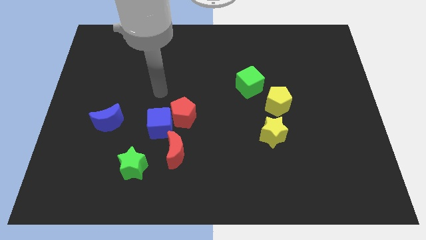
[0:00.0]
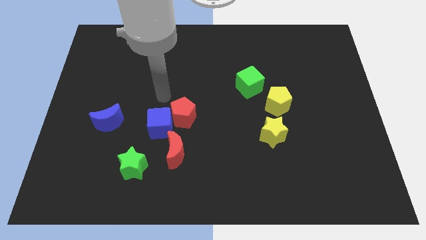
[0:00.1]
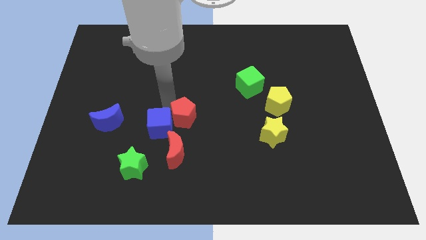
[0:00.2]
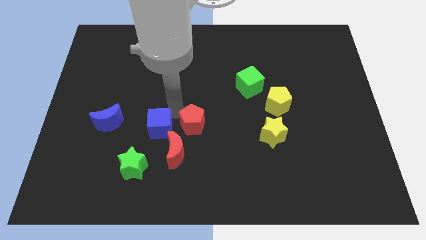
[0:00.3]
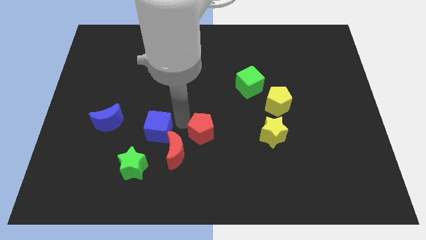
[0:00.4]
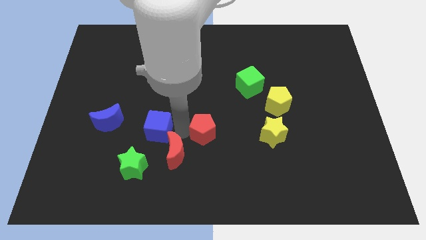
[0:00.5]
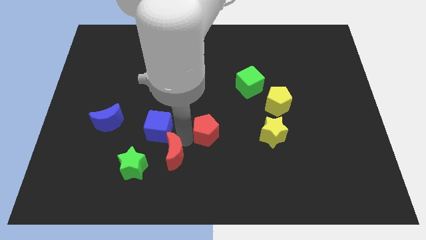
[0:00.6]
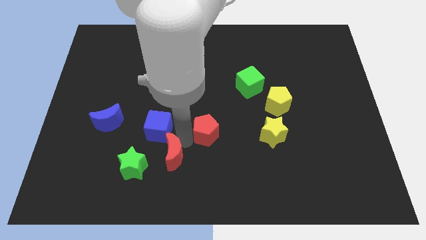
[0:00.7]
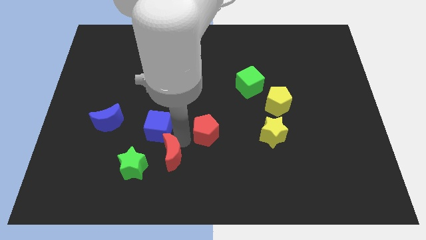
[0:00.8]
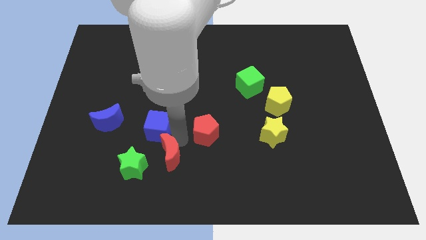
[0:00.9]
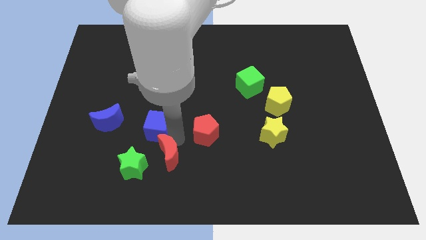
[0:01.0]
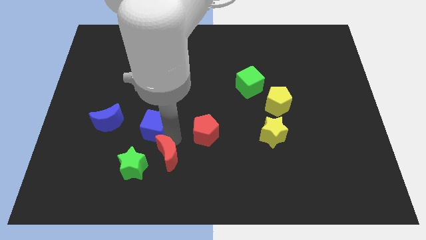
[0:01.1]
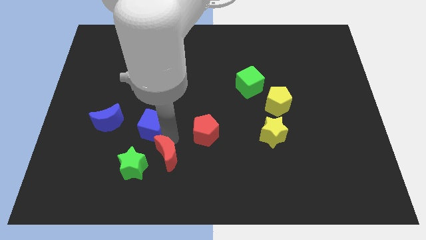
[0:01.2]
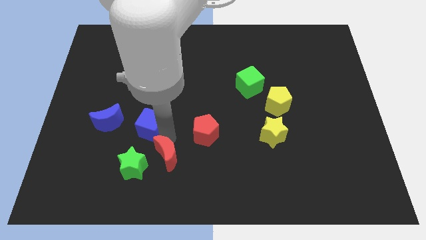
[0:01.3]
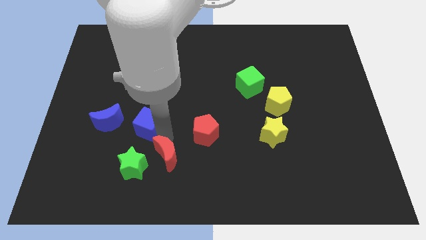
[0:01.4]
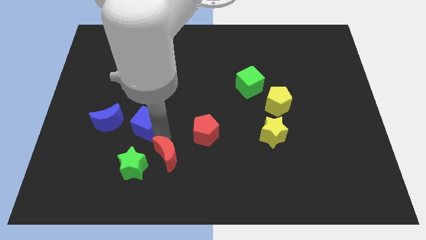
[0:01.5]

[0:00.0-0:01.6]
separate the blue cube from the red pentagon and red moon

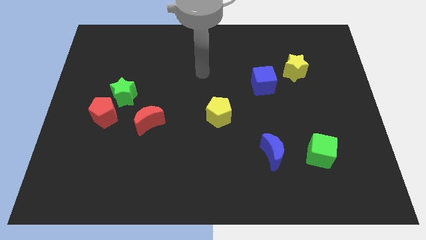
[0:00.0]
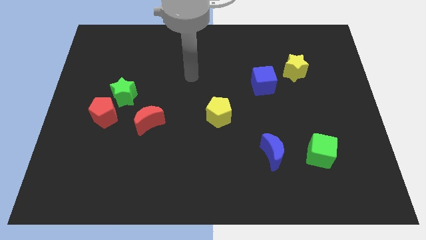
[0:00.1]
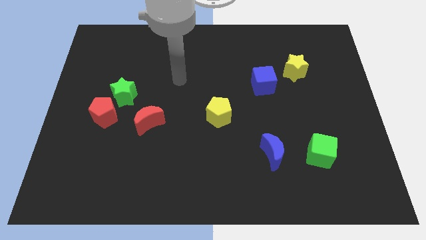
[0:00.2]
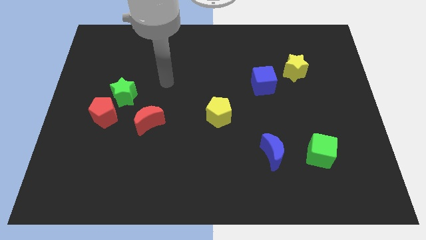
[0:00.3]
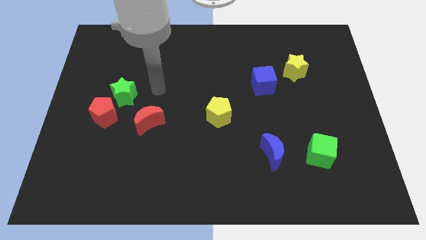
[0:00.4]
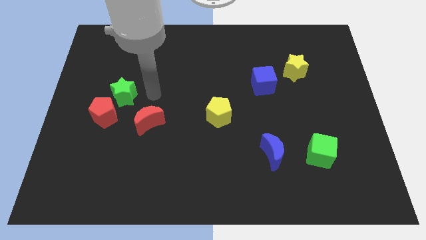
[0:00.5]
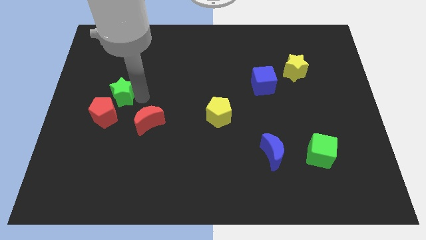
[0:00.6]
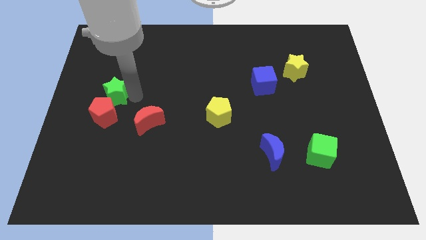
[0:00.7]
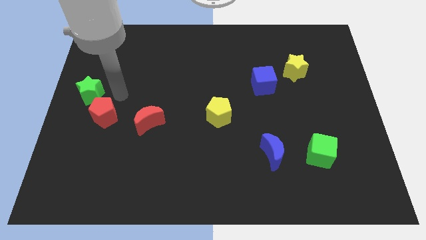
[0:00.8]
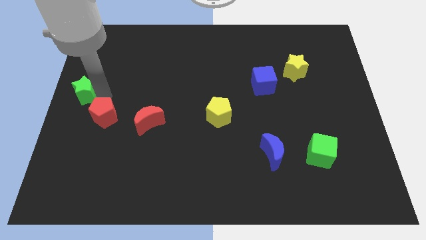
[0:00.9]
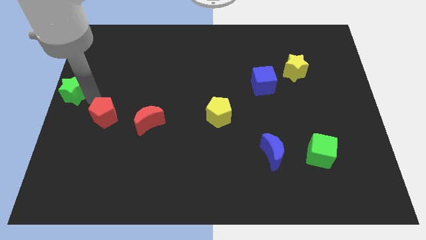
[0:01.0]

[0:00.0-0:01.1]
pull the red pentagon apart from the green star

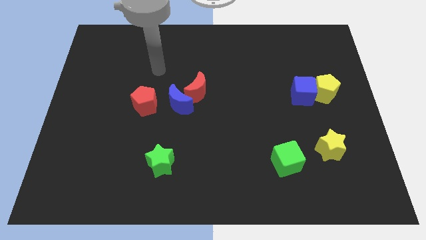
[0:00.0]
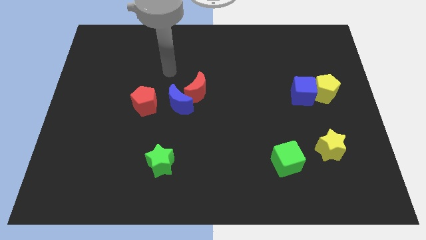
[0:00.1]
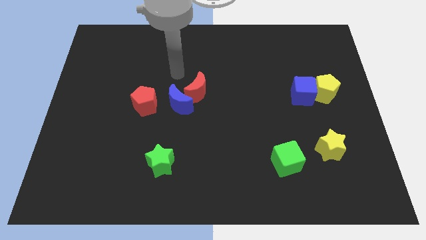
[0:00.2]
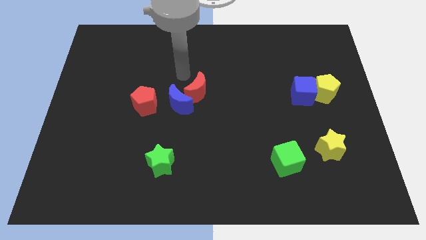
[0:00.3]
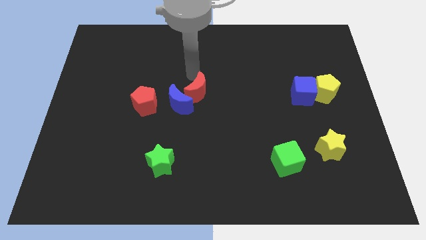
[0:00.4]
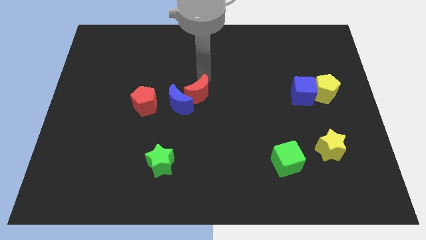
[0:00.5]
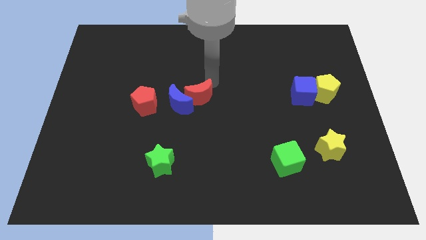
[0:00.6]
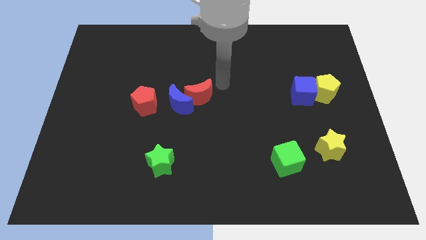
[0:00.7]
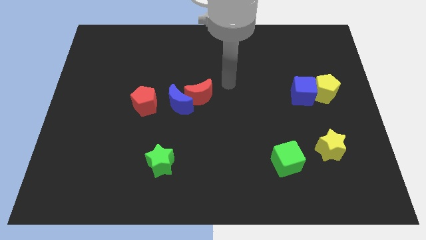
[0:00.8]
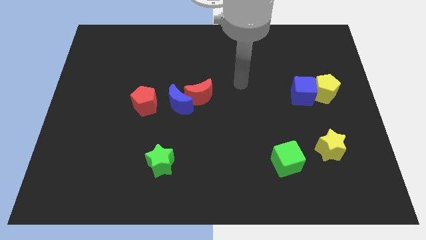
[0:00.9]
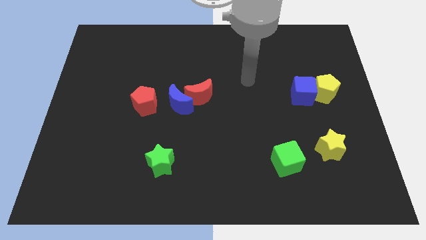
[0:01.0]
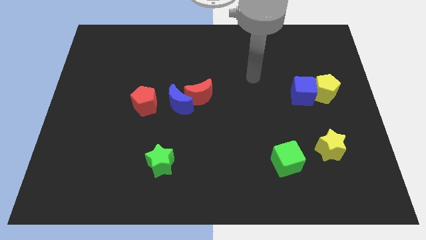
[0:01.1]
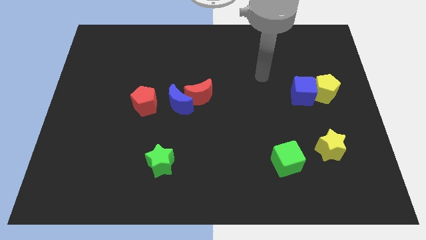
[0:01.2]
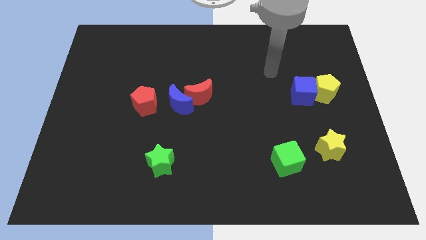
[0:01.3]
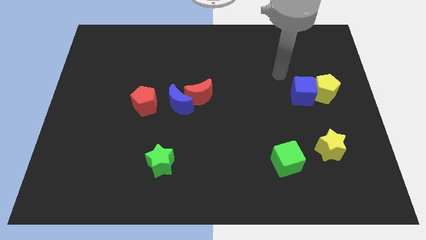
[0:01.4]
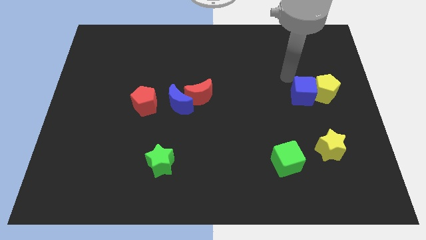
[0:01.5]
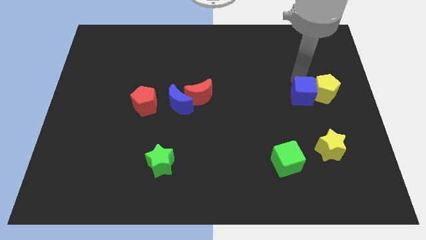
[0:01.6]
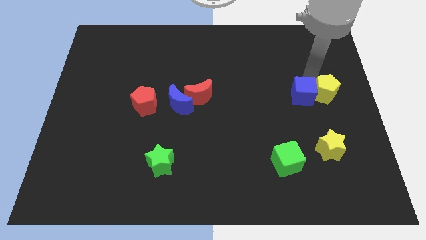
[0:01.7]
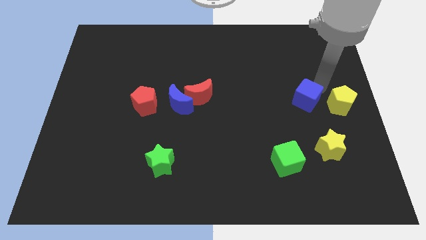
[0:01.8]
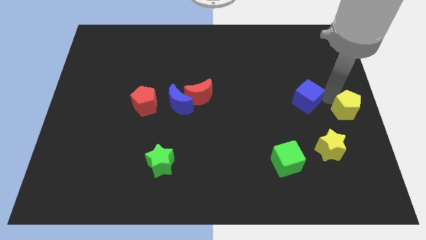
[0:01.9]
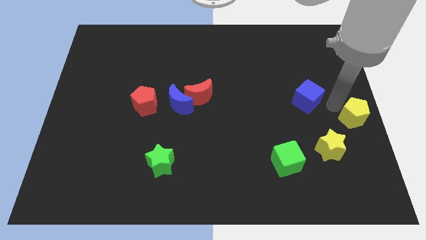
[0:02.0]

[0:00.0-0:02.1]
separate the blue cube from the yellow pentagon

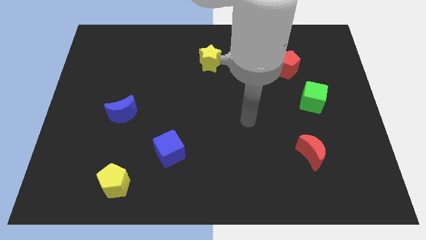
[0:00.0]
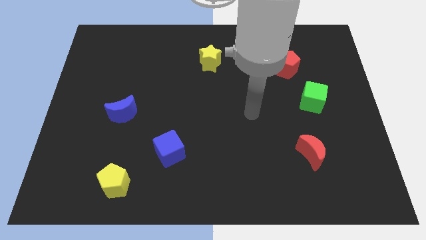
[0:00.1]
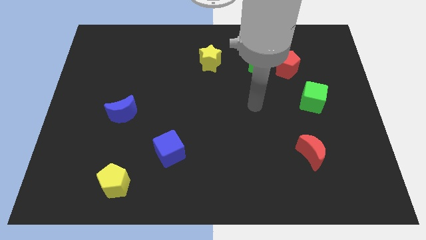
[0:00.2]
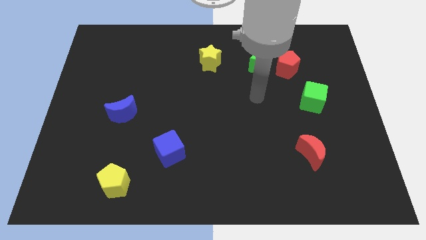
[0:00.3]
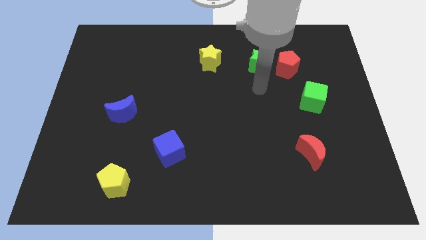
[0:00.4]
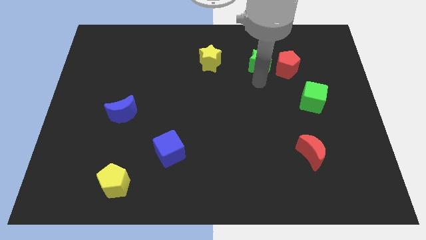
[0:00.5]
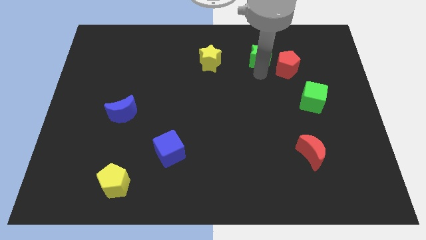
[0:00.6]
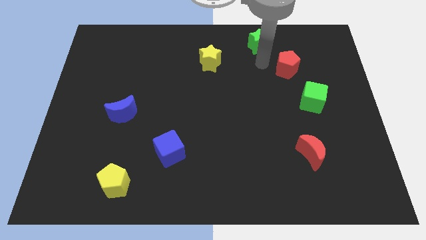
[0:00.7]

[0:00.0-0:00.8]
separate the red pentagon from the green star

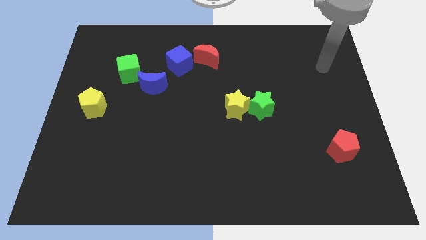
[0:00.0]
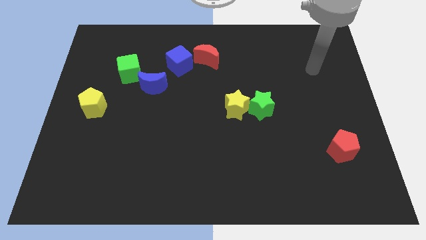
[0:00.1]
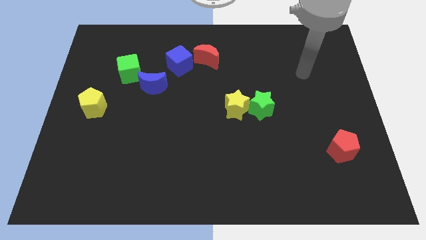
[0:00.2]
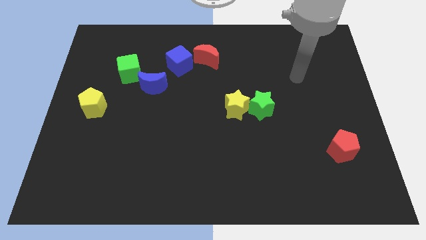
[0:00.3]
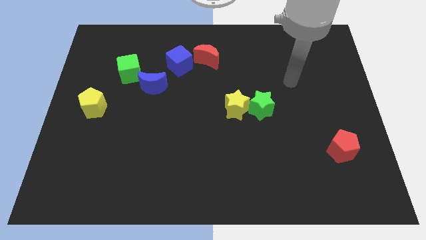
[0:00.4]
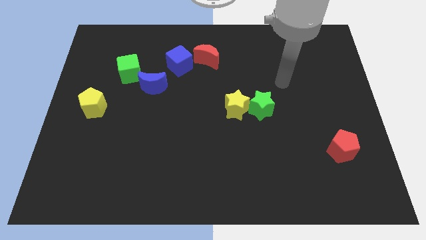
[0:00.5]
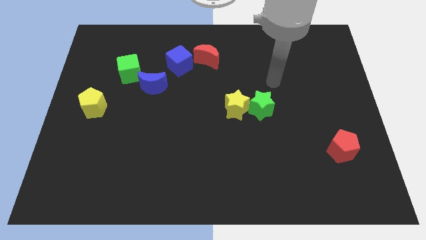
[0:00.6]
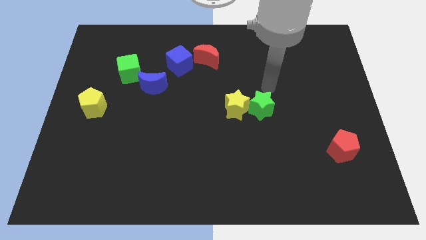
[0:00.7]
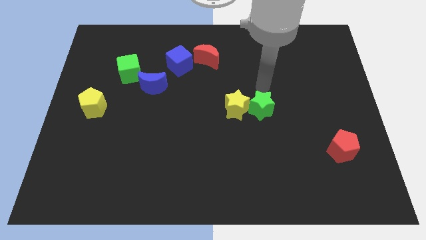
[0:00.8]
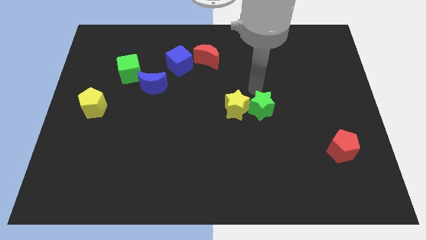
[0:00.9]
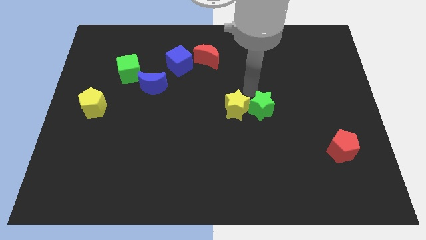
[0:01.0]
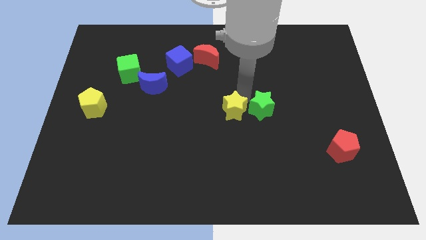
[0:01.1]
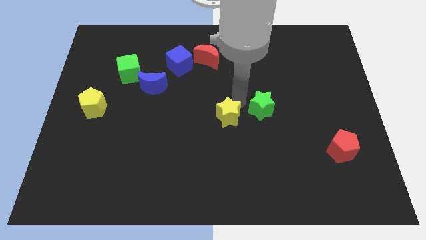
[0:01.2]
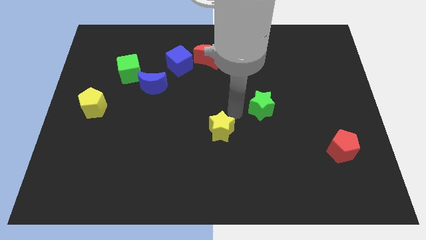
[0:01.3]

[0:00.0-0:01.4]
move the green star away from the yellow star

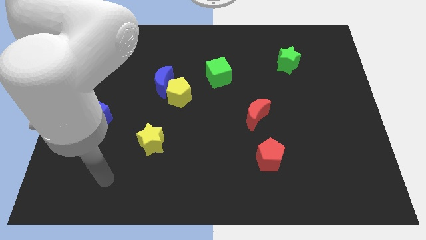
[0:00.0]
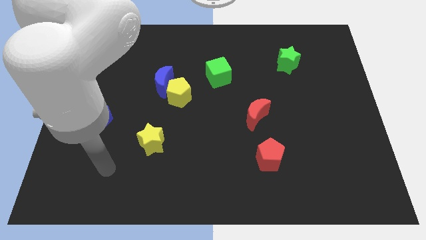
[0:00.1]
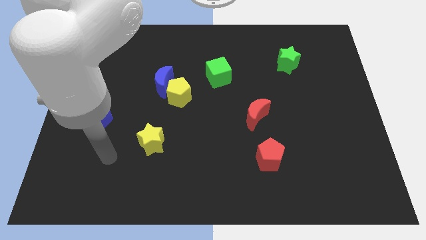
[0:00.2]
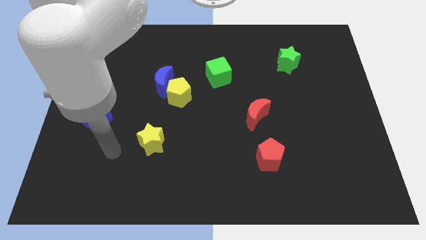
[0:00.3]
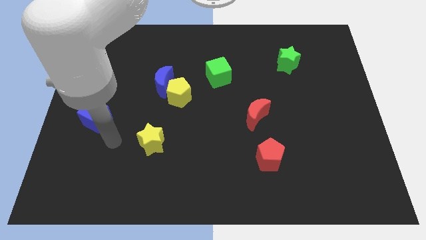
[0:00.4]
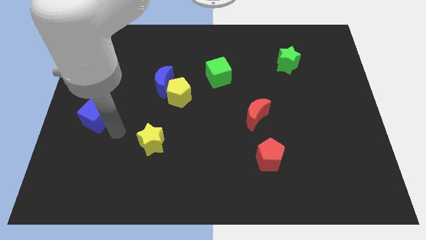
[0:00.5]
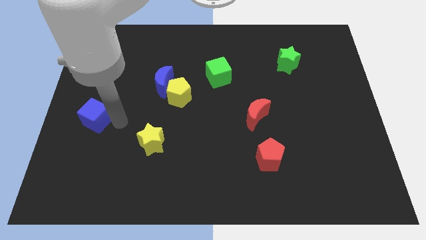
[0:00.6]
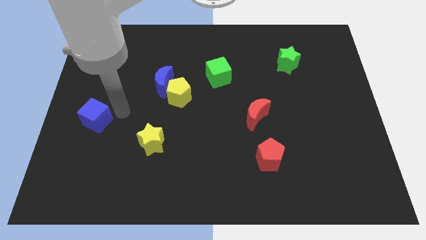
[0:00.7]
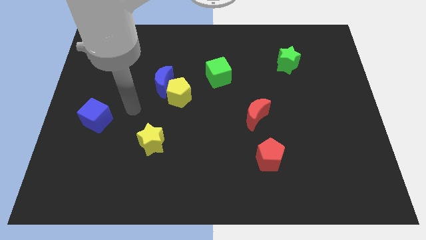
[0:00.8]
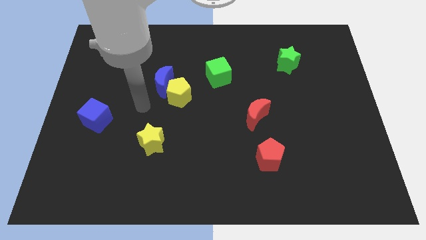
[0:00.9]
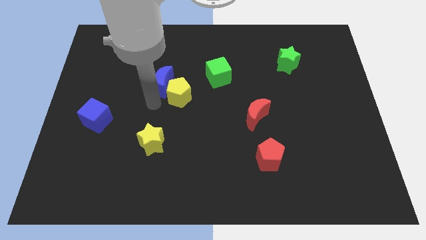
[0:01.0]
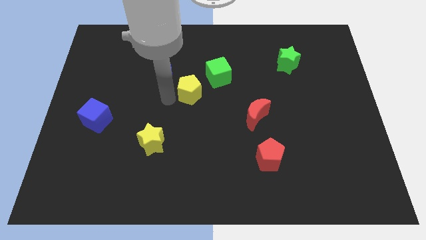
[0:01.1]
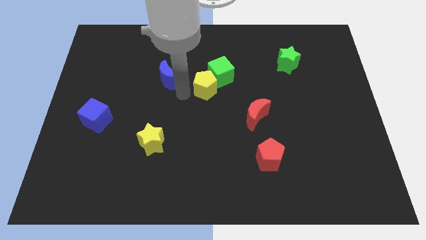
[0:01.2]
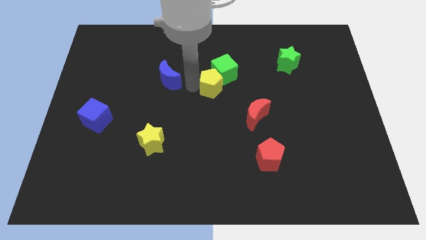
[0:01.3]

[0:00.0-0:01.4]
pull the blue moon apart from the yellow pentagon

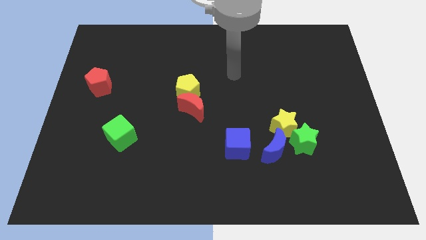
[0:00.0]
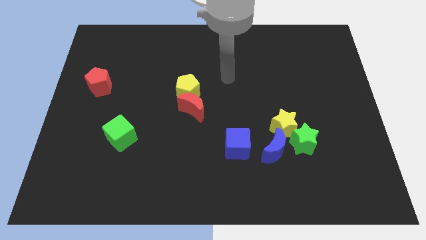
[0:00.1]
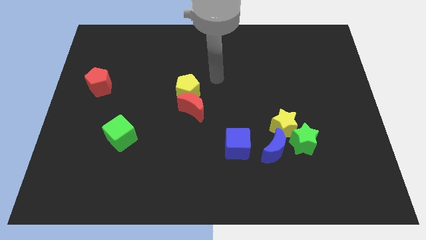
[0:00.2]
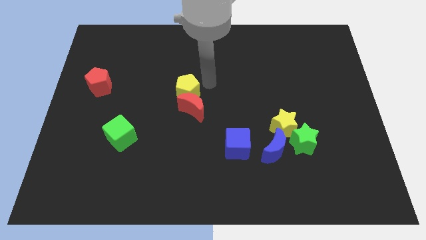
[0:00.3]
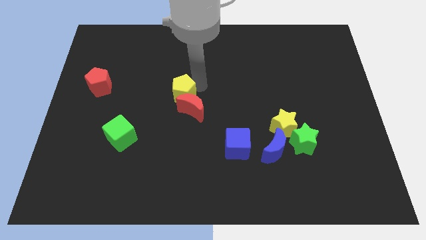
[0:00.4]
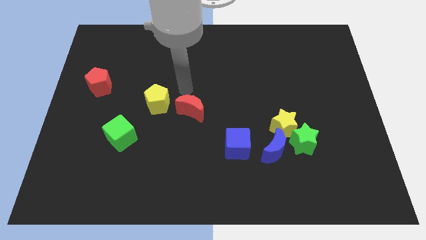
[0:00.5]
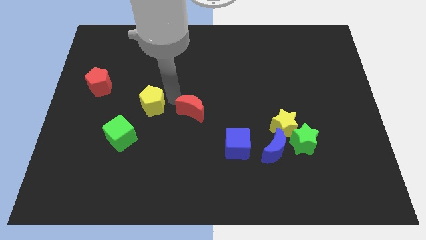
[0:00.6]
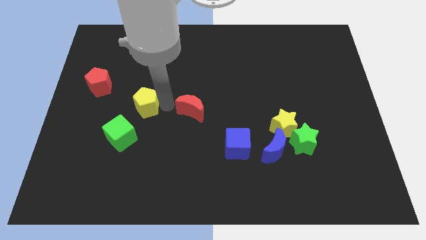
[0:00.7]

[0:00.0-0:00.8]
separate the red moon from the yellow pentagon

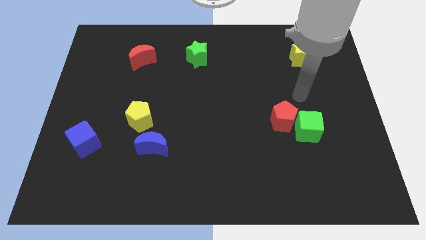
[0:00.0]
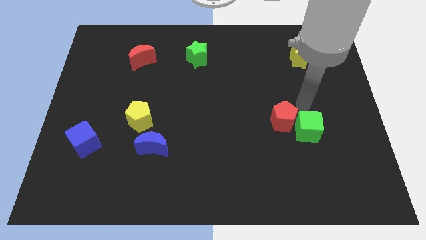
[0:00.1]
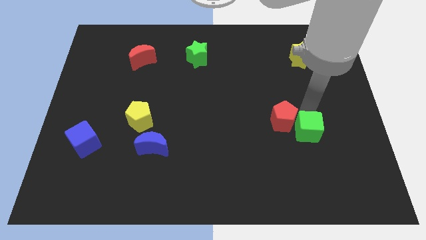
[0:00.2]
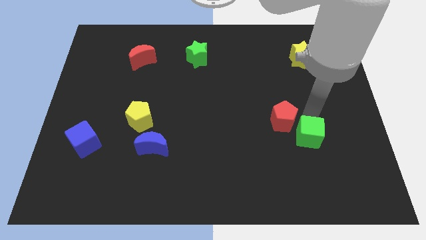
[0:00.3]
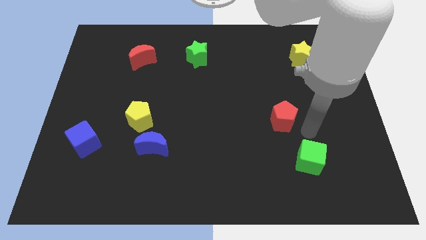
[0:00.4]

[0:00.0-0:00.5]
separate the red pentagon from the green cube
